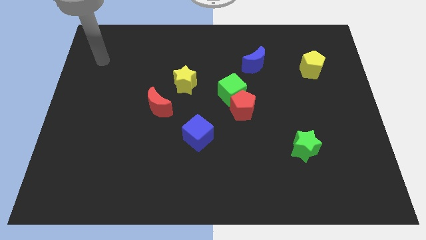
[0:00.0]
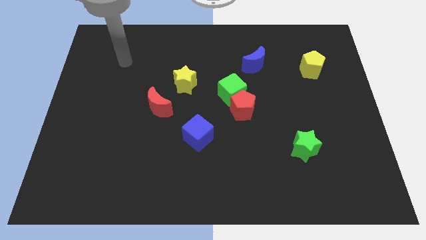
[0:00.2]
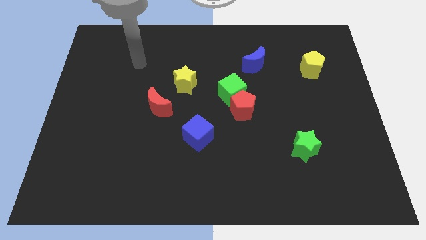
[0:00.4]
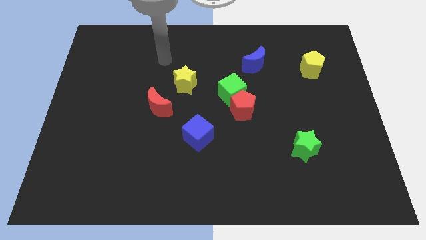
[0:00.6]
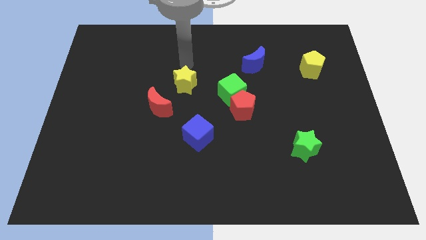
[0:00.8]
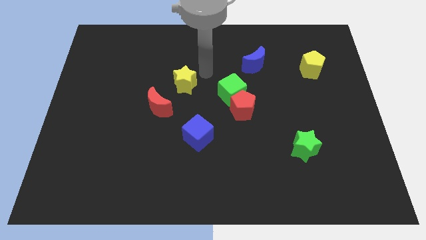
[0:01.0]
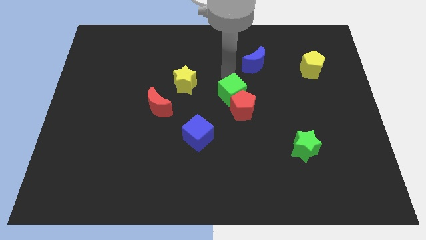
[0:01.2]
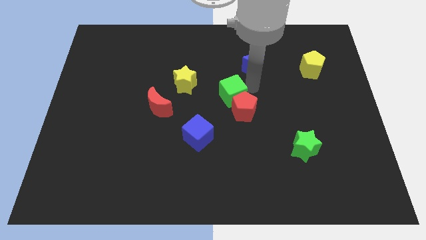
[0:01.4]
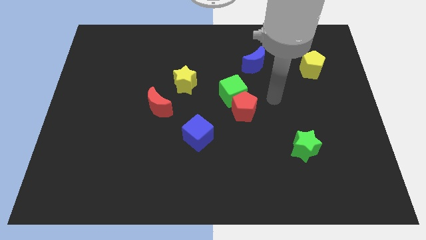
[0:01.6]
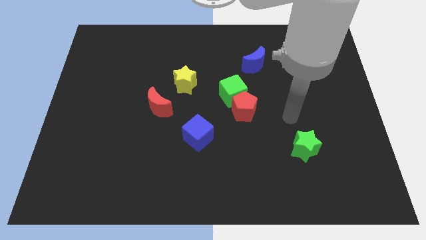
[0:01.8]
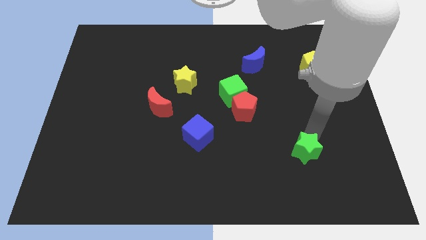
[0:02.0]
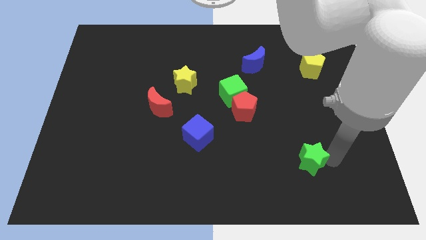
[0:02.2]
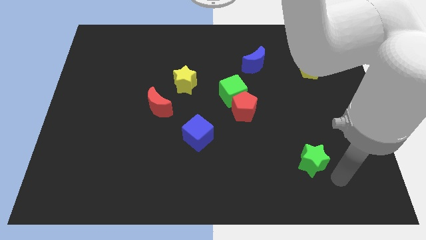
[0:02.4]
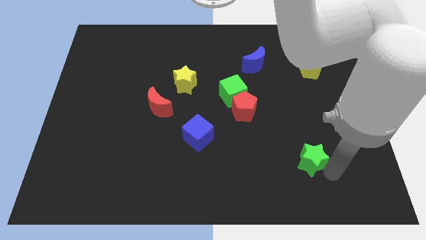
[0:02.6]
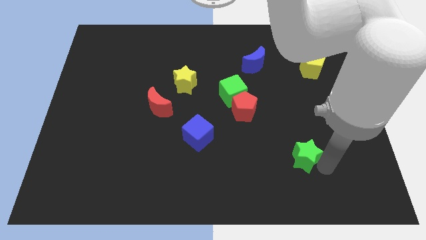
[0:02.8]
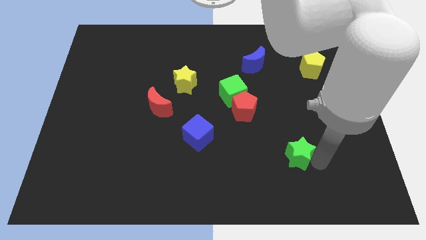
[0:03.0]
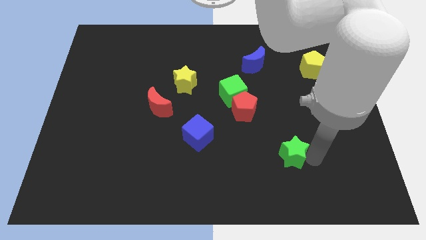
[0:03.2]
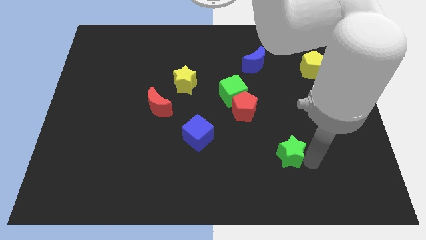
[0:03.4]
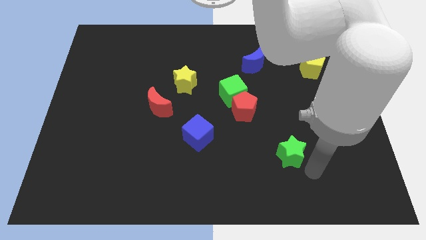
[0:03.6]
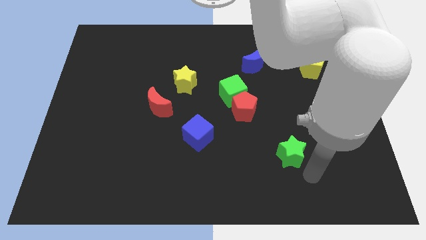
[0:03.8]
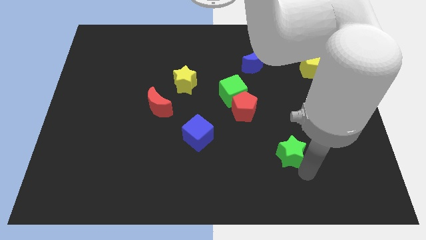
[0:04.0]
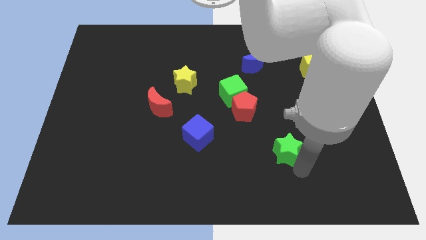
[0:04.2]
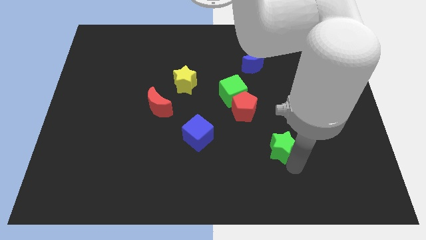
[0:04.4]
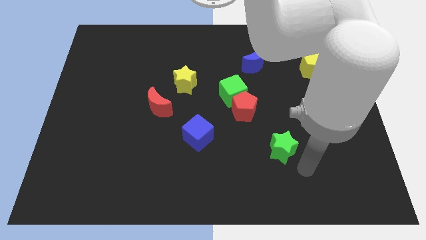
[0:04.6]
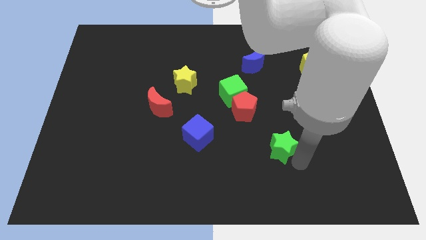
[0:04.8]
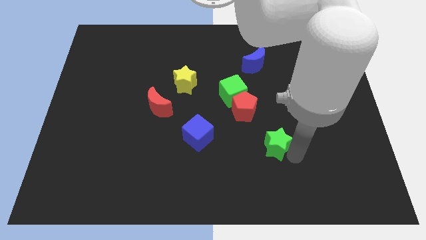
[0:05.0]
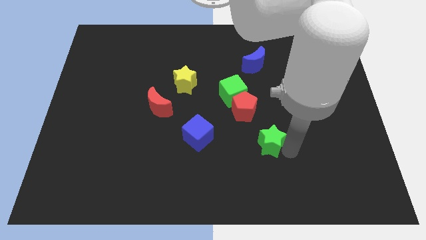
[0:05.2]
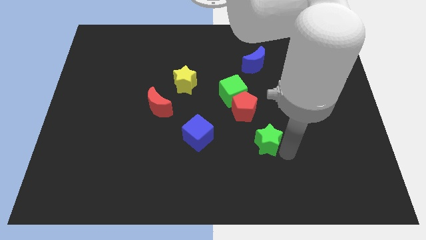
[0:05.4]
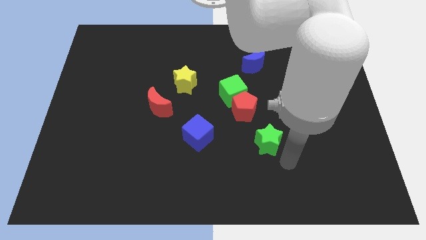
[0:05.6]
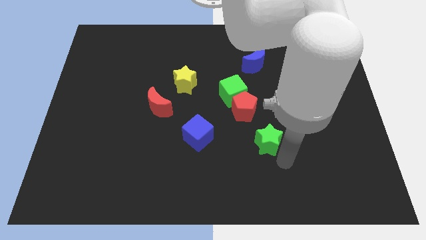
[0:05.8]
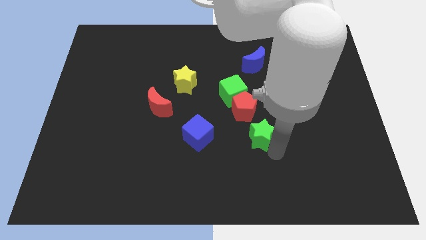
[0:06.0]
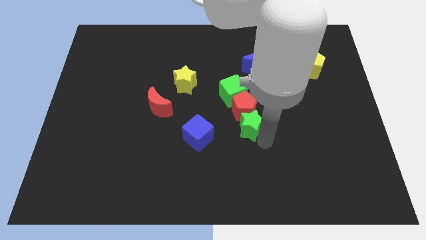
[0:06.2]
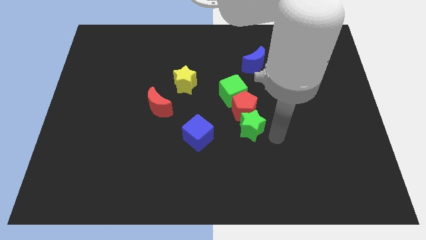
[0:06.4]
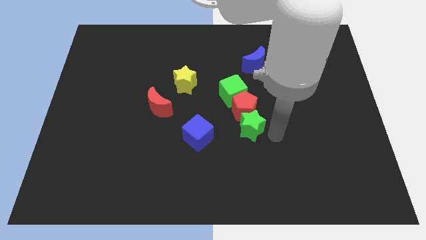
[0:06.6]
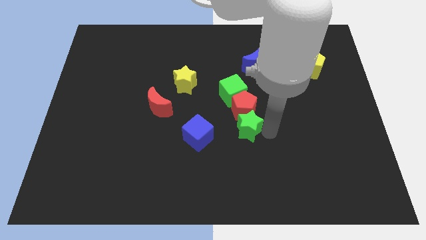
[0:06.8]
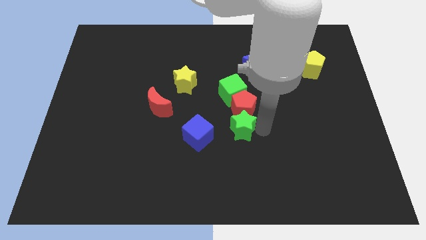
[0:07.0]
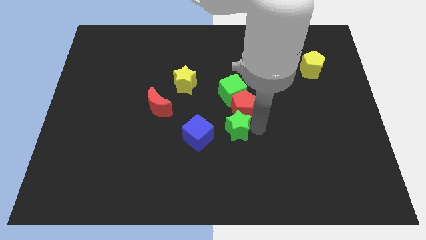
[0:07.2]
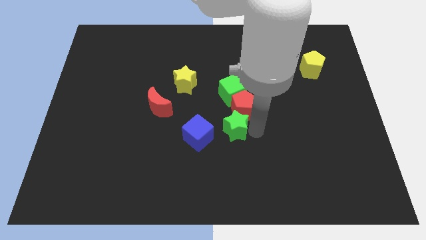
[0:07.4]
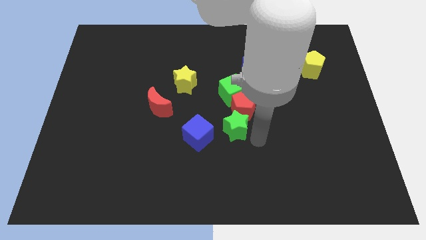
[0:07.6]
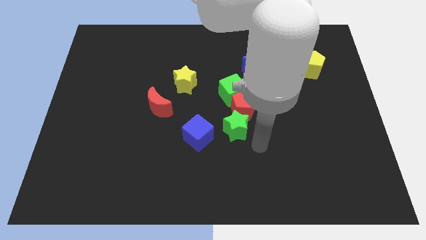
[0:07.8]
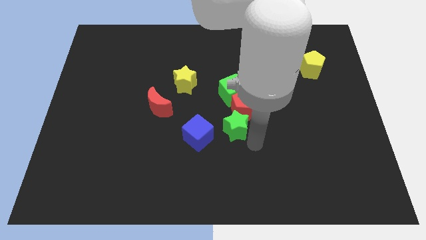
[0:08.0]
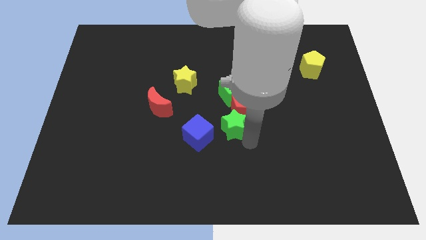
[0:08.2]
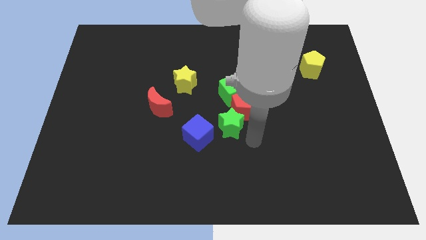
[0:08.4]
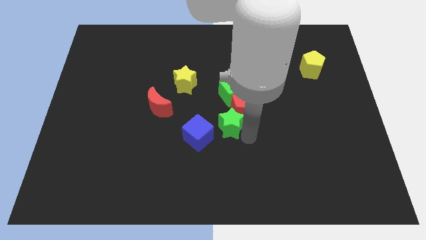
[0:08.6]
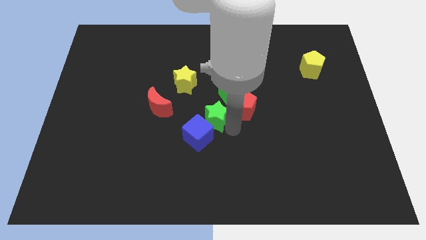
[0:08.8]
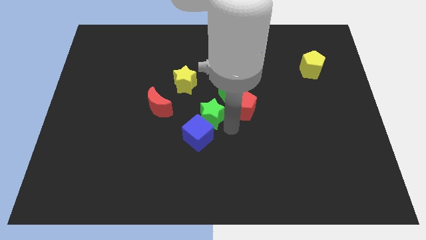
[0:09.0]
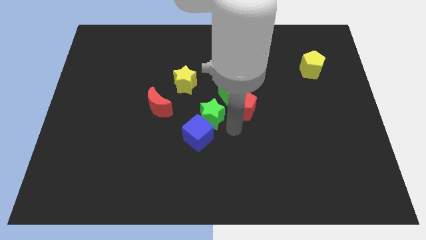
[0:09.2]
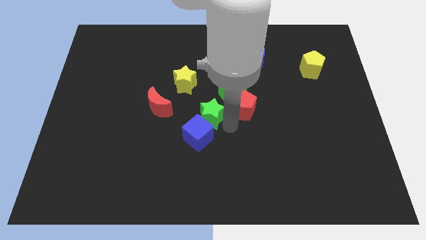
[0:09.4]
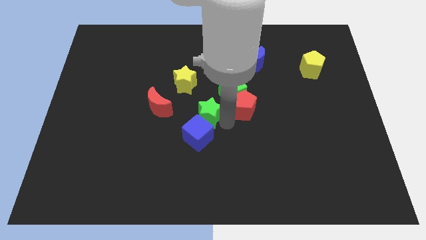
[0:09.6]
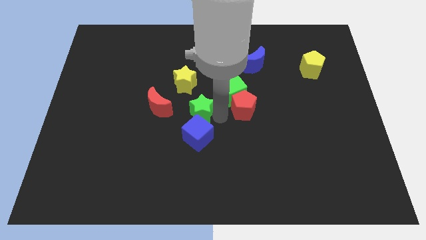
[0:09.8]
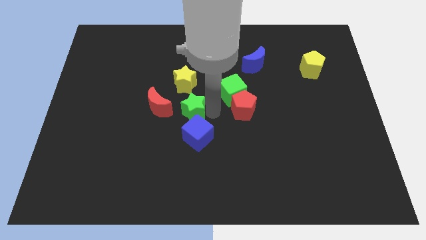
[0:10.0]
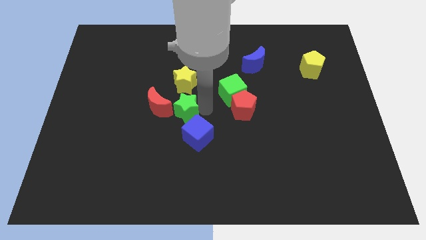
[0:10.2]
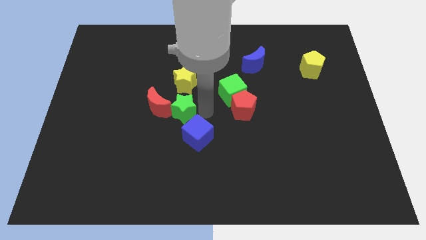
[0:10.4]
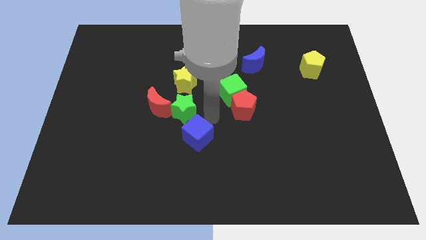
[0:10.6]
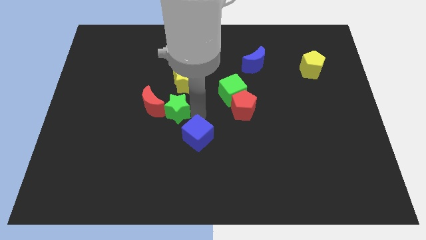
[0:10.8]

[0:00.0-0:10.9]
push the green star close to the red moon

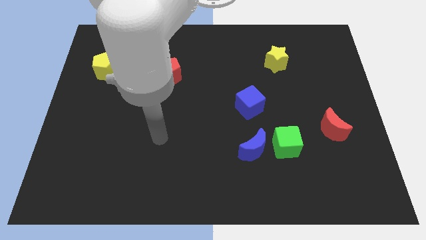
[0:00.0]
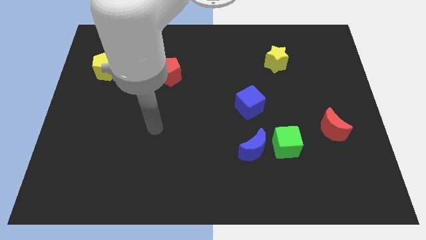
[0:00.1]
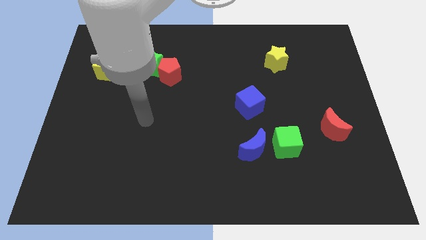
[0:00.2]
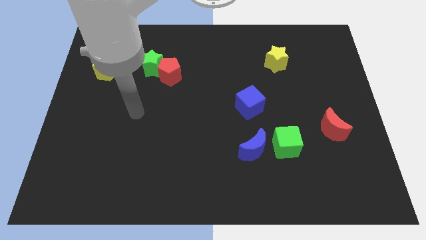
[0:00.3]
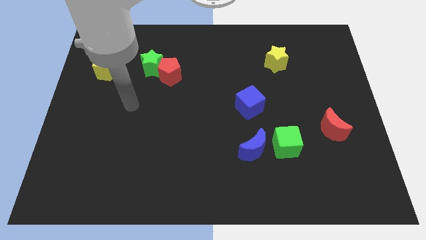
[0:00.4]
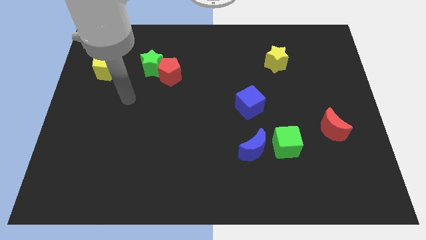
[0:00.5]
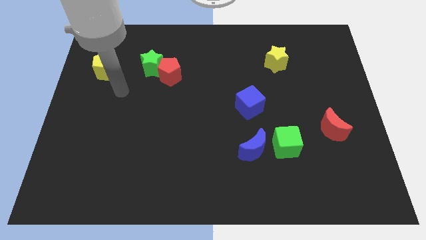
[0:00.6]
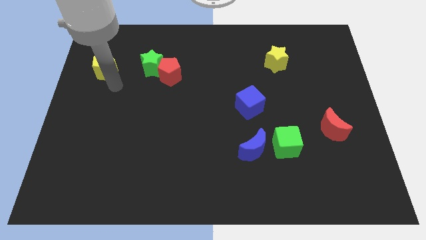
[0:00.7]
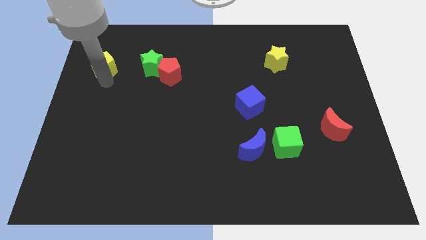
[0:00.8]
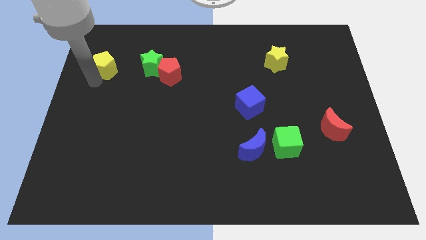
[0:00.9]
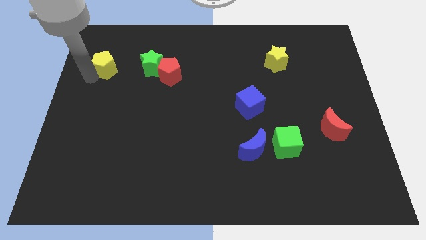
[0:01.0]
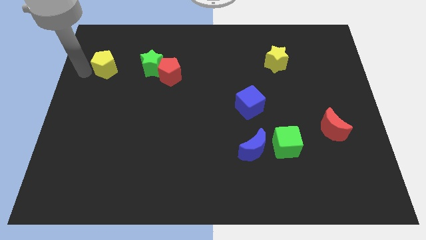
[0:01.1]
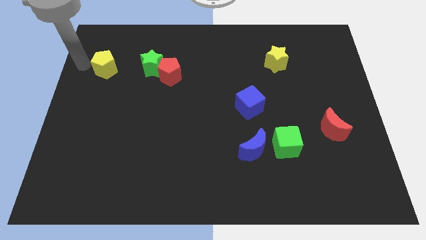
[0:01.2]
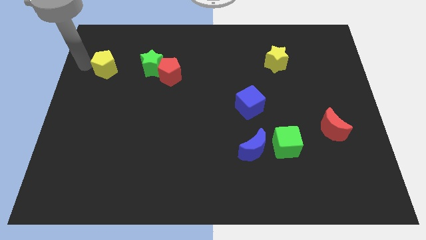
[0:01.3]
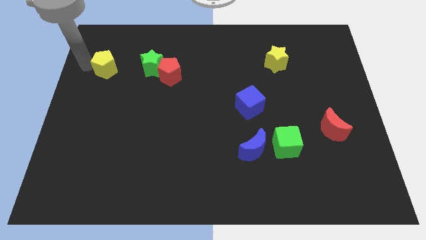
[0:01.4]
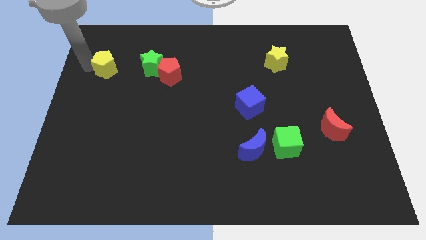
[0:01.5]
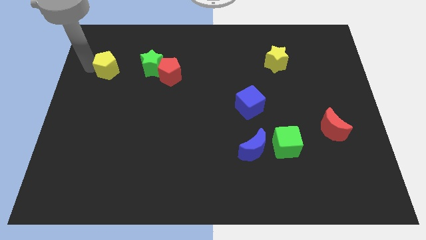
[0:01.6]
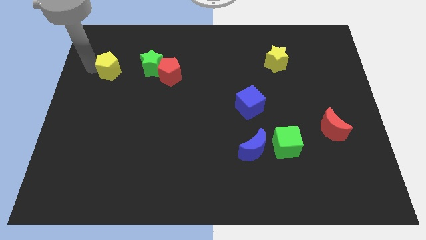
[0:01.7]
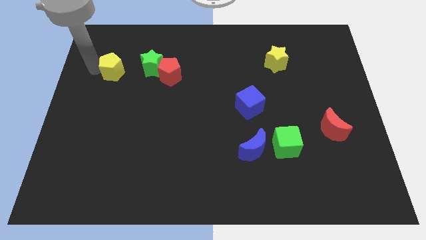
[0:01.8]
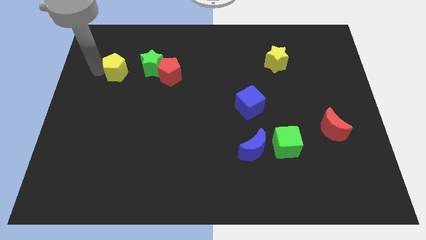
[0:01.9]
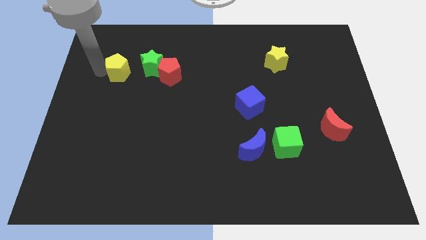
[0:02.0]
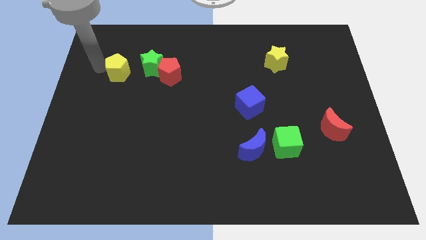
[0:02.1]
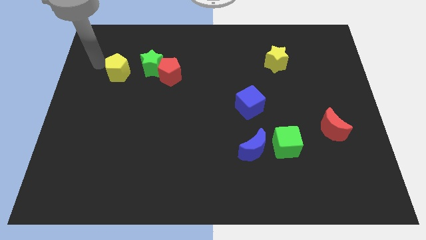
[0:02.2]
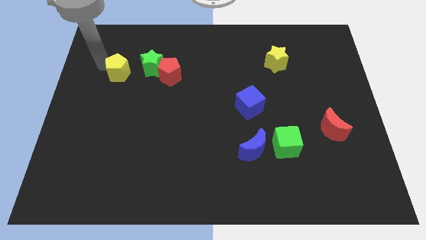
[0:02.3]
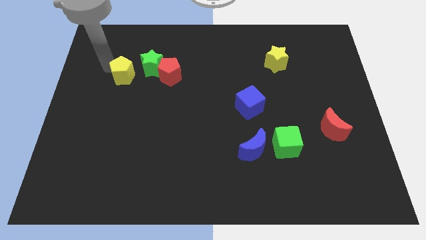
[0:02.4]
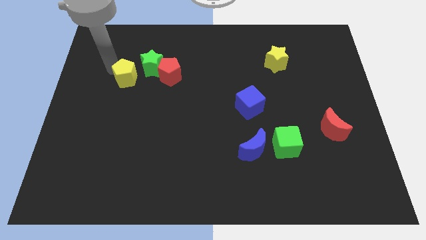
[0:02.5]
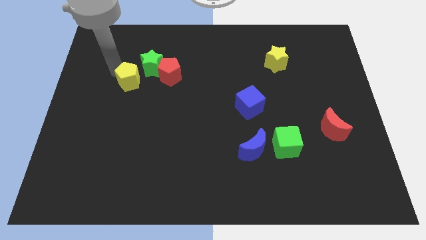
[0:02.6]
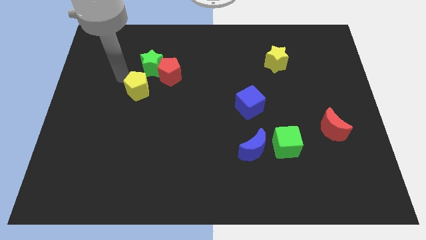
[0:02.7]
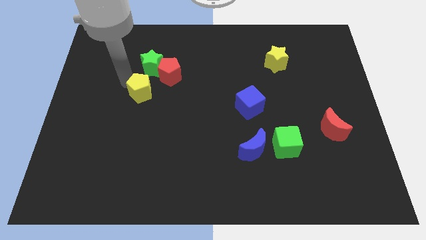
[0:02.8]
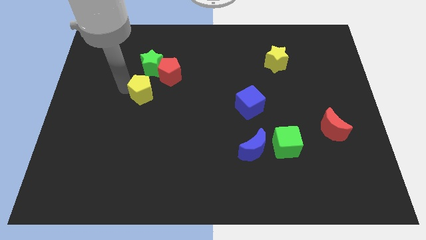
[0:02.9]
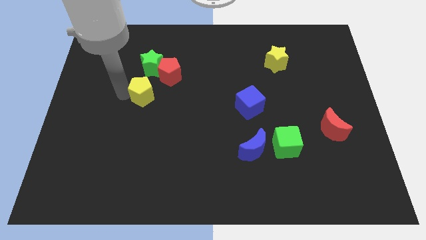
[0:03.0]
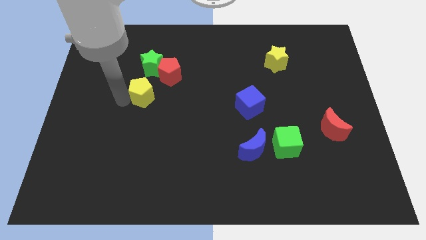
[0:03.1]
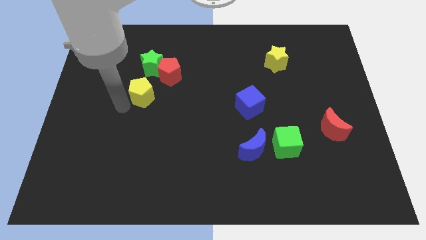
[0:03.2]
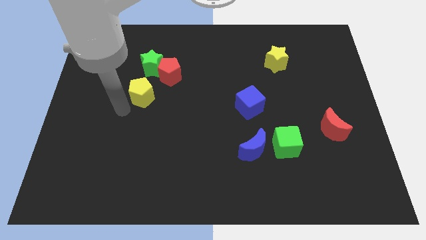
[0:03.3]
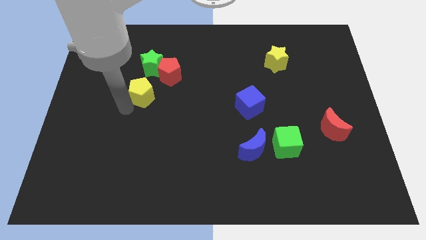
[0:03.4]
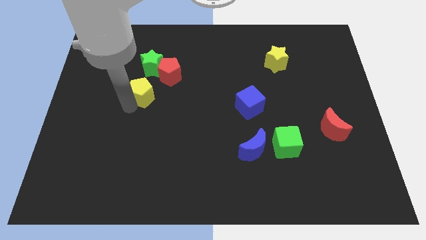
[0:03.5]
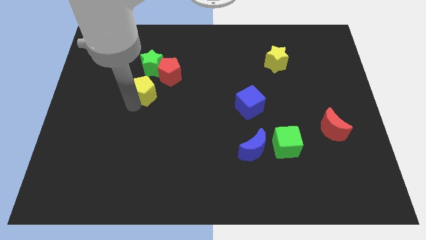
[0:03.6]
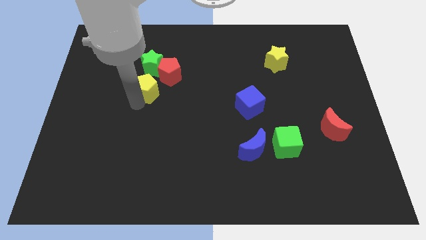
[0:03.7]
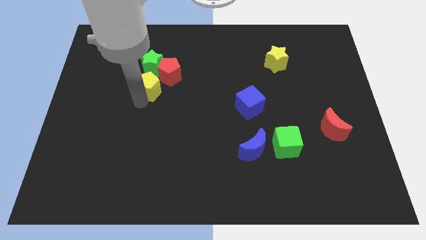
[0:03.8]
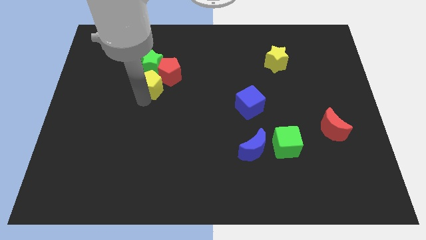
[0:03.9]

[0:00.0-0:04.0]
slide the yellow pentagon next to the red pentagon
